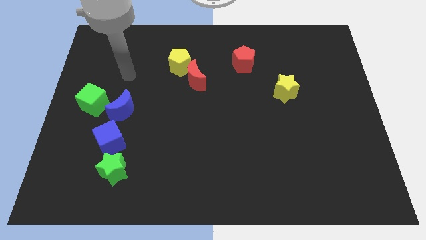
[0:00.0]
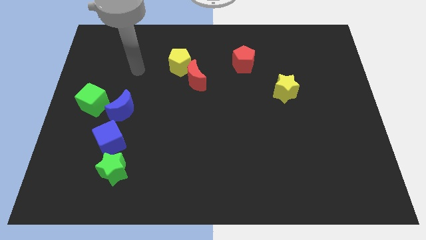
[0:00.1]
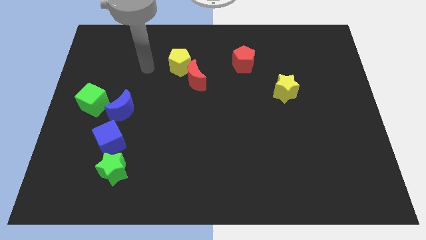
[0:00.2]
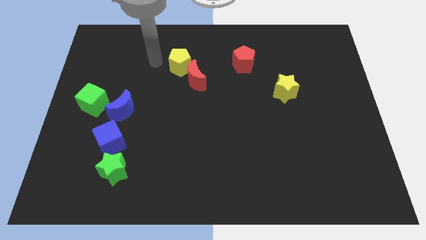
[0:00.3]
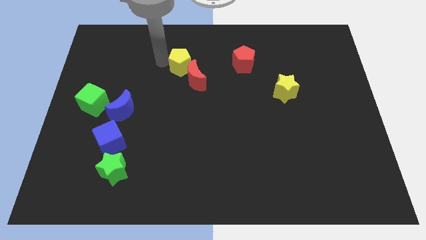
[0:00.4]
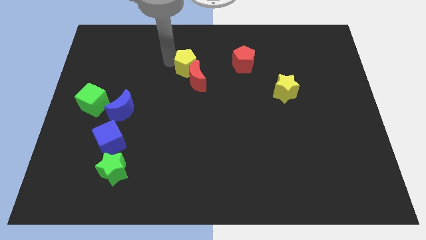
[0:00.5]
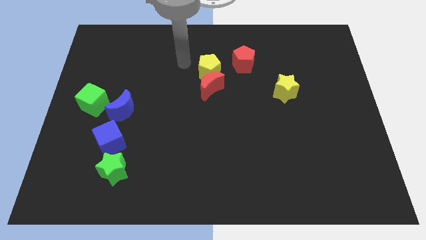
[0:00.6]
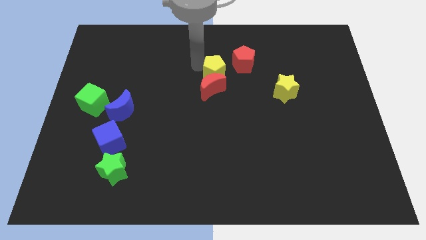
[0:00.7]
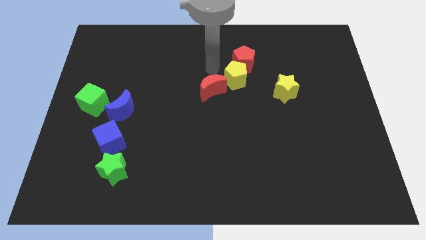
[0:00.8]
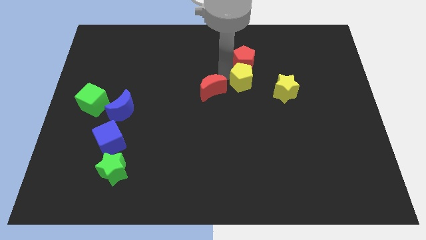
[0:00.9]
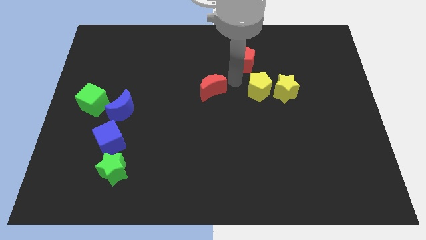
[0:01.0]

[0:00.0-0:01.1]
separate the red moon from the yellow pentagon

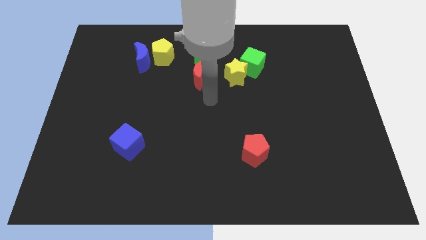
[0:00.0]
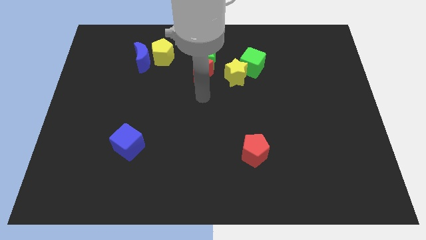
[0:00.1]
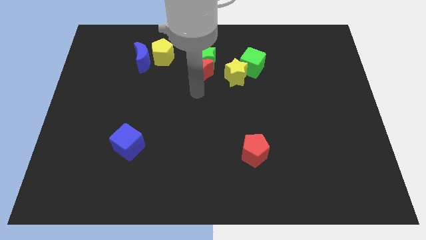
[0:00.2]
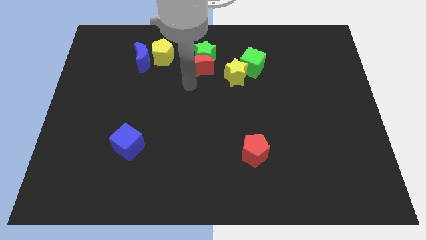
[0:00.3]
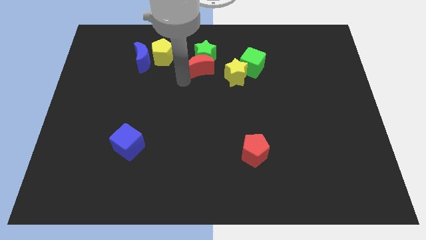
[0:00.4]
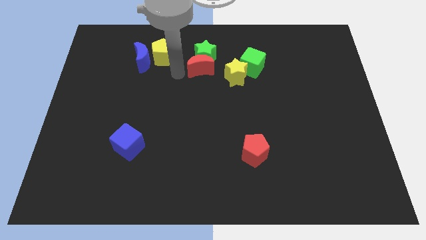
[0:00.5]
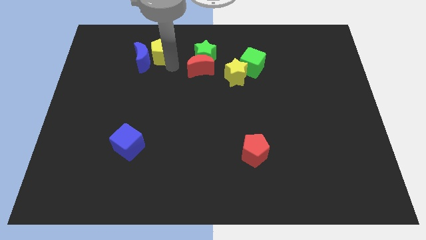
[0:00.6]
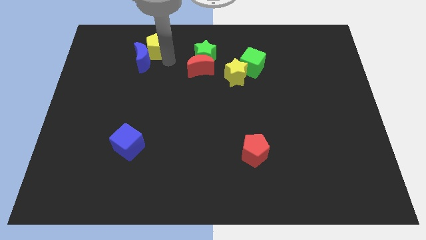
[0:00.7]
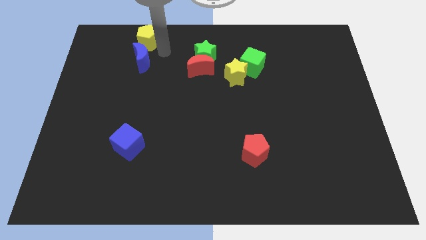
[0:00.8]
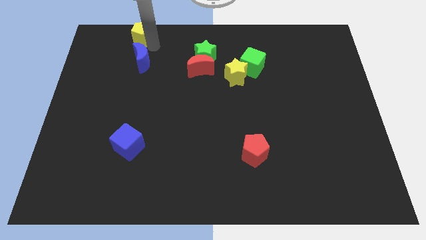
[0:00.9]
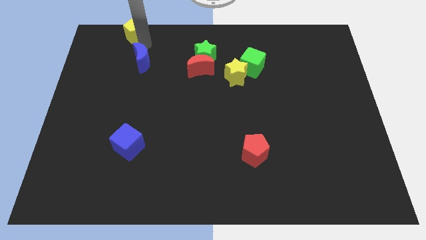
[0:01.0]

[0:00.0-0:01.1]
separate the blue moon from the yellow pentagon

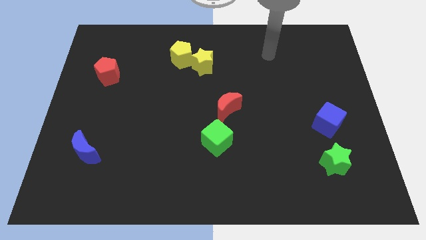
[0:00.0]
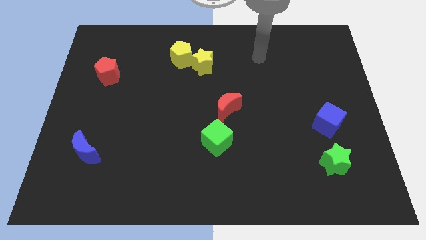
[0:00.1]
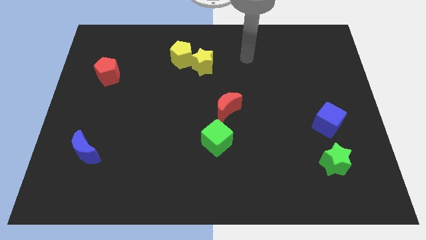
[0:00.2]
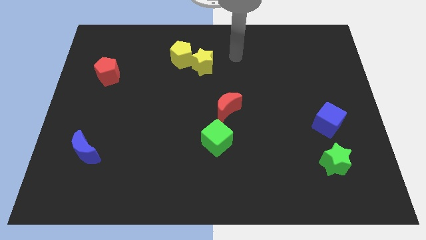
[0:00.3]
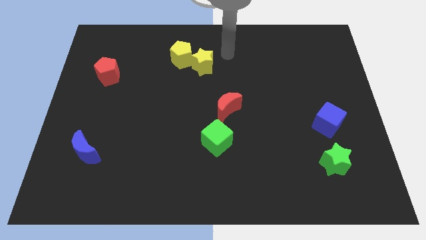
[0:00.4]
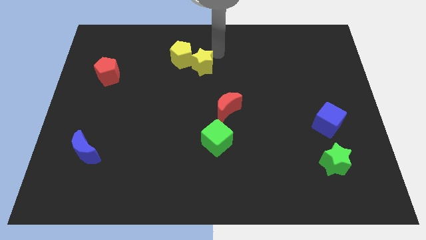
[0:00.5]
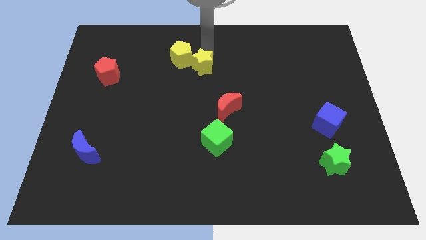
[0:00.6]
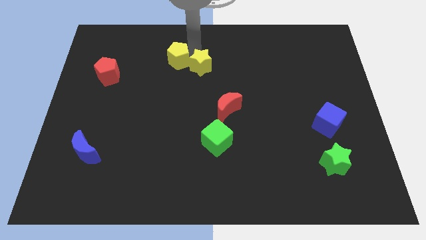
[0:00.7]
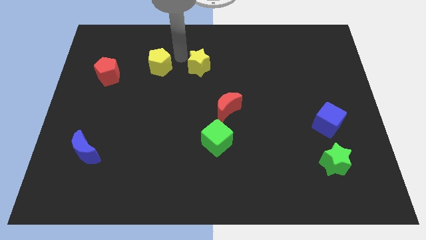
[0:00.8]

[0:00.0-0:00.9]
separate the yellow star from the yellow pentagon

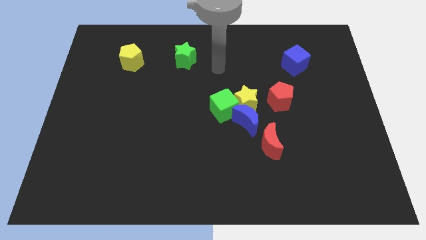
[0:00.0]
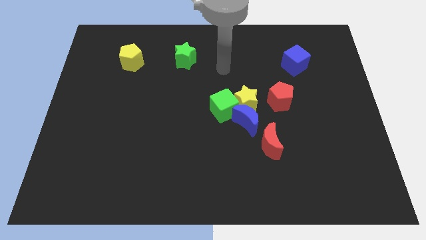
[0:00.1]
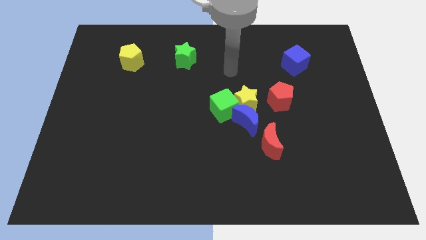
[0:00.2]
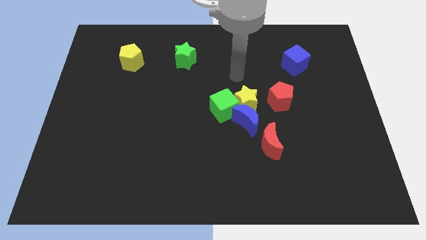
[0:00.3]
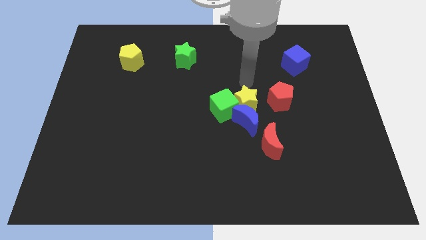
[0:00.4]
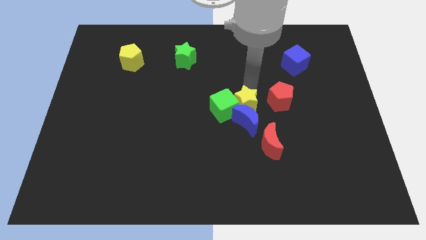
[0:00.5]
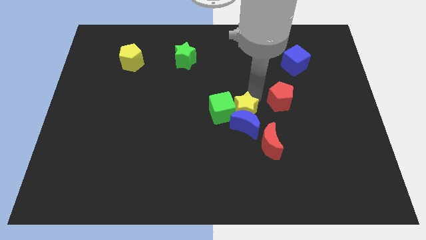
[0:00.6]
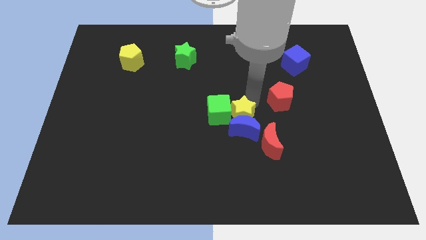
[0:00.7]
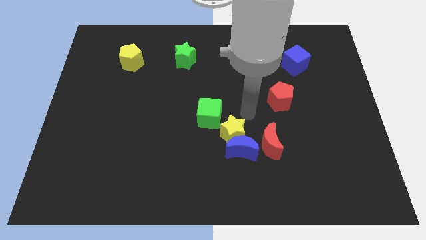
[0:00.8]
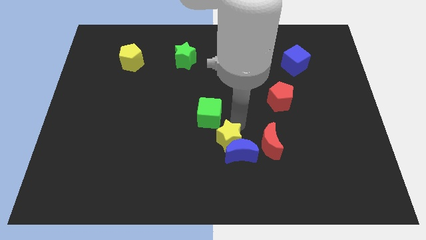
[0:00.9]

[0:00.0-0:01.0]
pull the green cube apart from the yellow star and blue moon

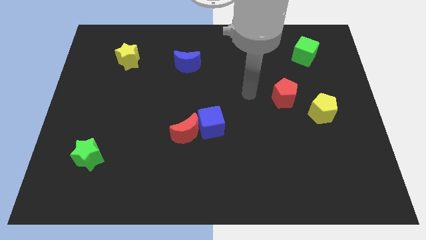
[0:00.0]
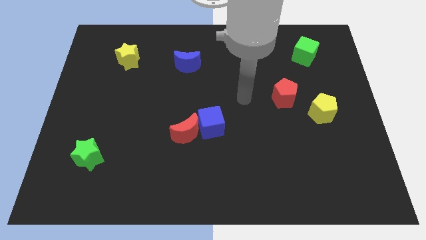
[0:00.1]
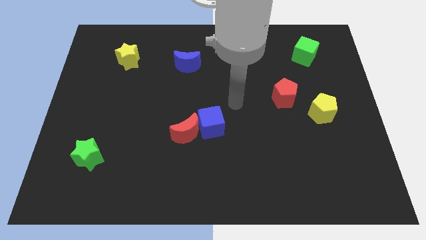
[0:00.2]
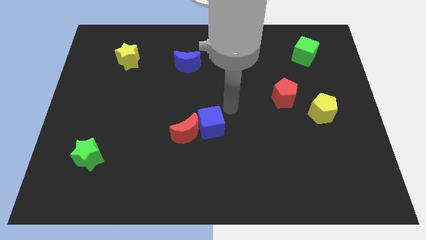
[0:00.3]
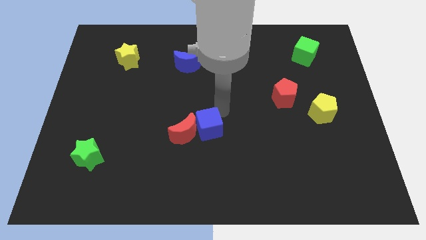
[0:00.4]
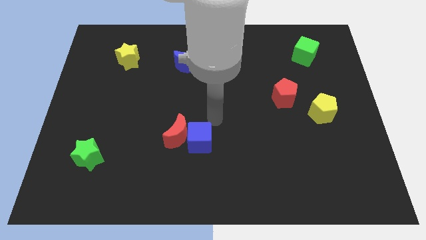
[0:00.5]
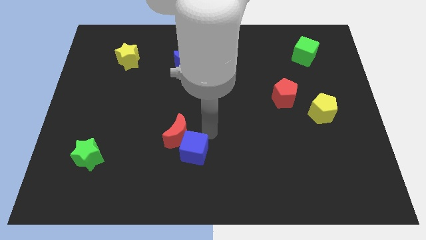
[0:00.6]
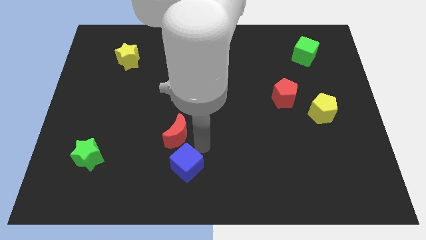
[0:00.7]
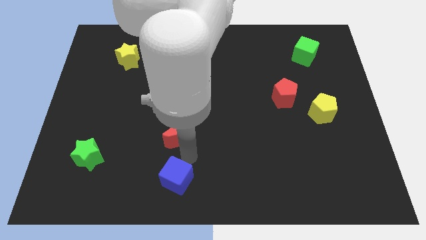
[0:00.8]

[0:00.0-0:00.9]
separate the red moon from the blue cube

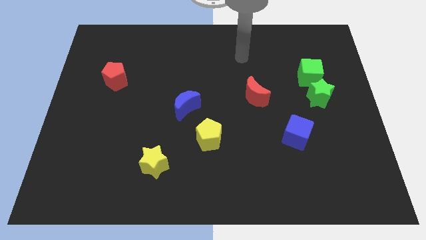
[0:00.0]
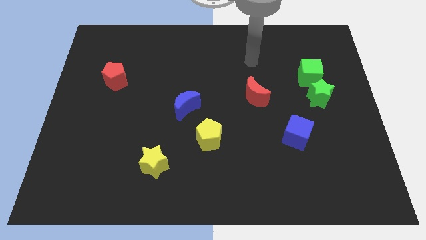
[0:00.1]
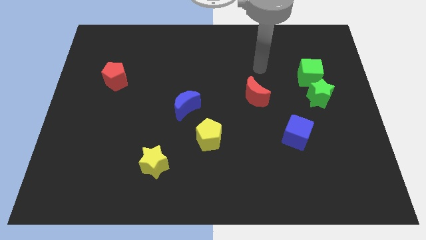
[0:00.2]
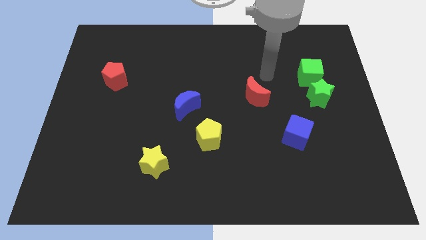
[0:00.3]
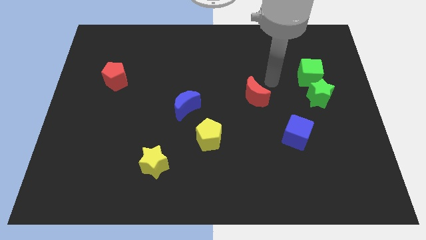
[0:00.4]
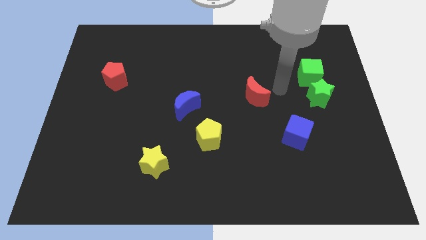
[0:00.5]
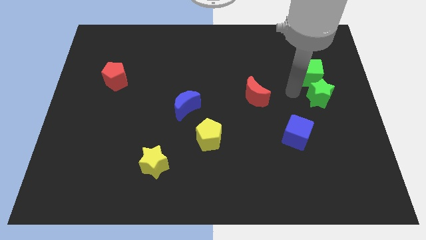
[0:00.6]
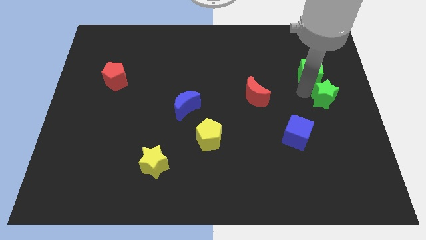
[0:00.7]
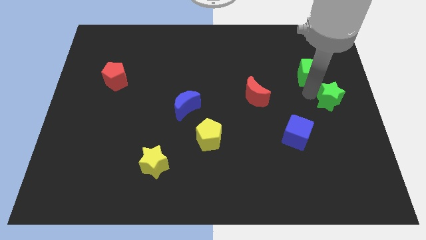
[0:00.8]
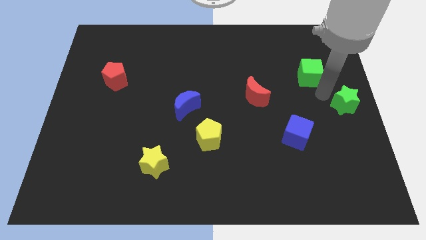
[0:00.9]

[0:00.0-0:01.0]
separate the green cube from the green star

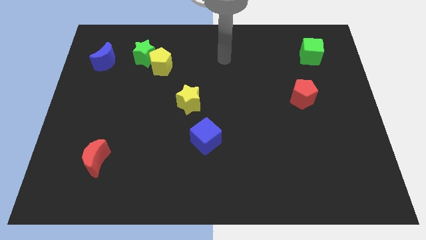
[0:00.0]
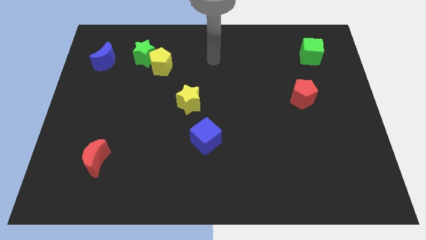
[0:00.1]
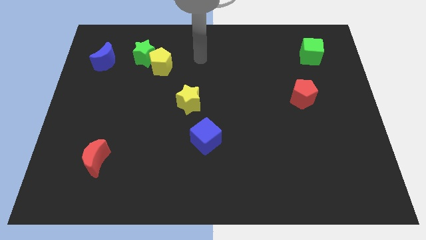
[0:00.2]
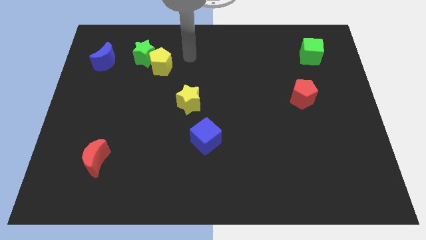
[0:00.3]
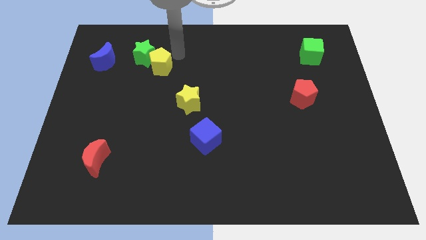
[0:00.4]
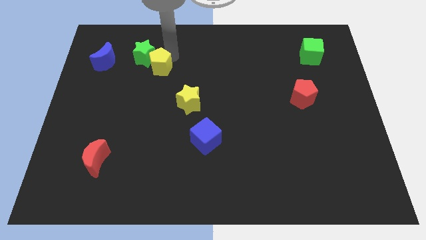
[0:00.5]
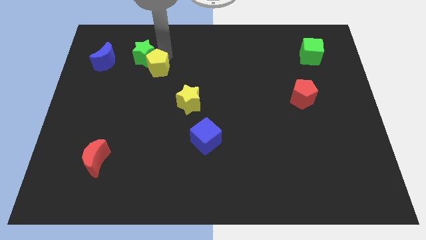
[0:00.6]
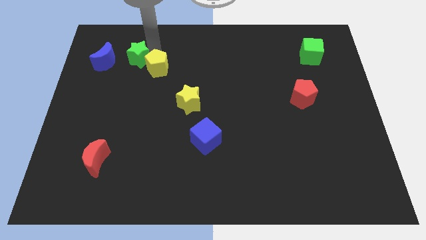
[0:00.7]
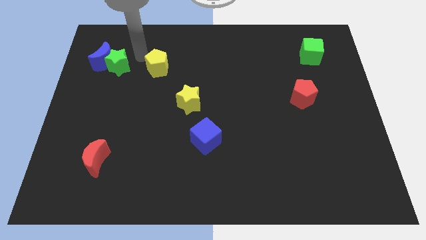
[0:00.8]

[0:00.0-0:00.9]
pull the yellow pentagon apart from the green star

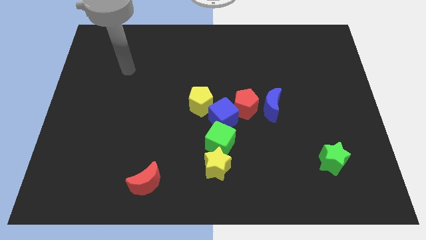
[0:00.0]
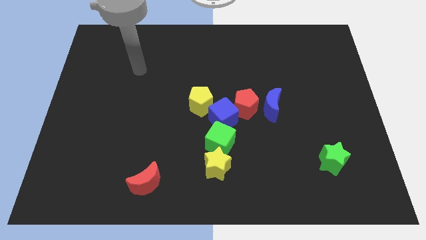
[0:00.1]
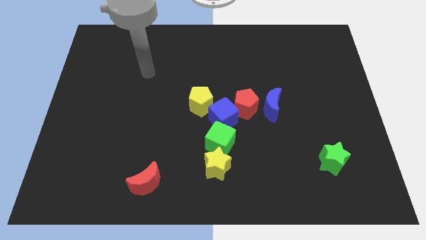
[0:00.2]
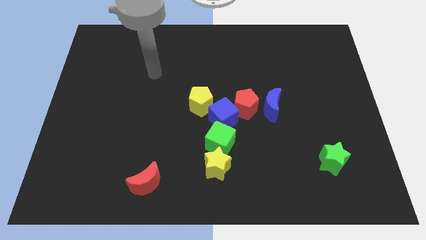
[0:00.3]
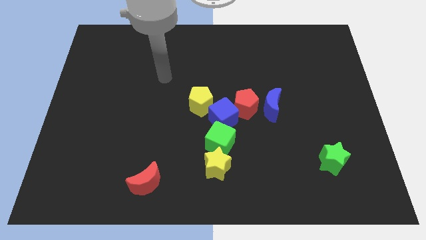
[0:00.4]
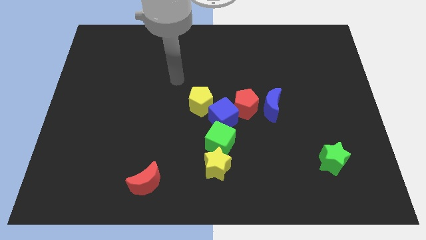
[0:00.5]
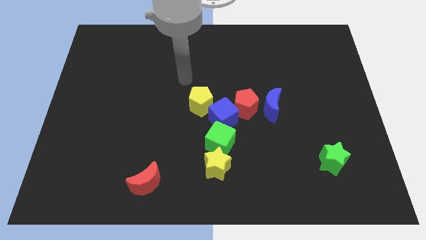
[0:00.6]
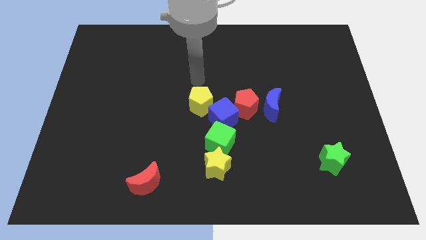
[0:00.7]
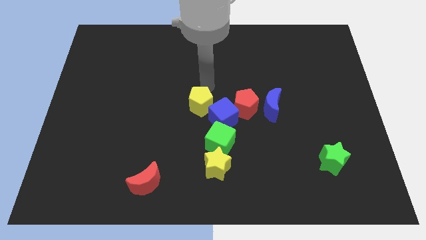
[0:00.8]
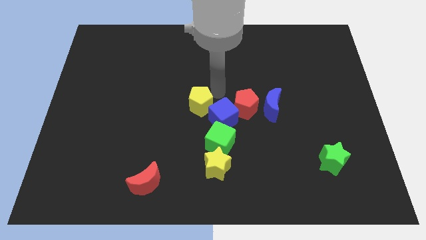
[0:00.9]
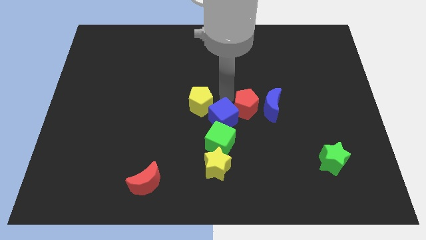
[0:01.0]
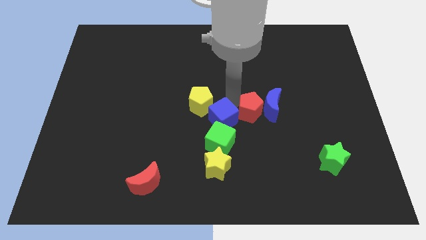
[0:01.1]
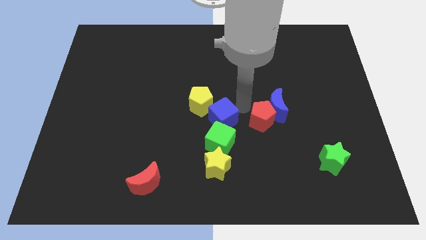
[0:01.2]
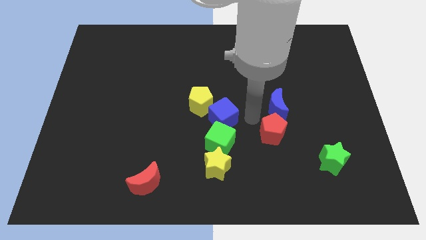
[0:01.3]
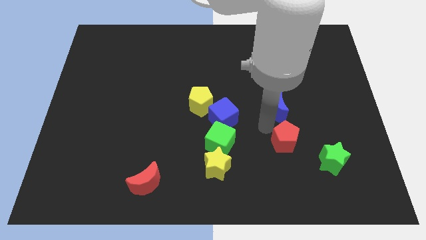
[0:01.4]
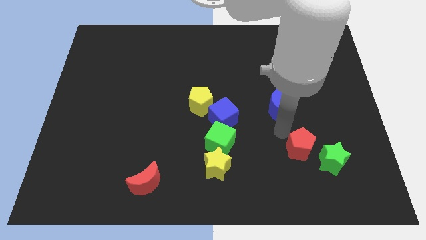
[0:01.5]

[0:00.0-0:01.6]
pull the blue moon apart from the red pentagon

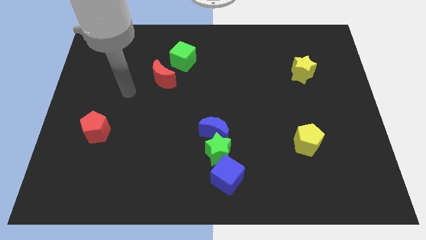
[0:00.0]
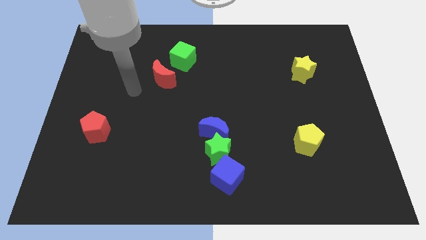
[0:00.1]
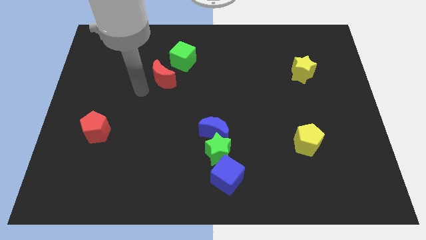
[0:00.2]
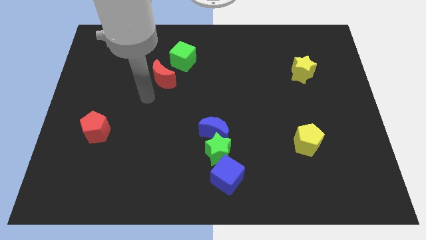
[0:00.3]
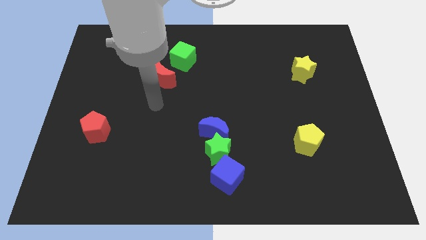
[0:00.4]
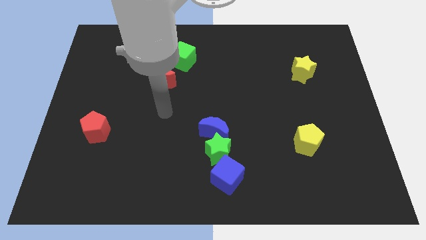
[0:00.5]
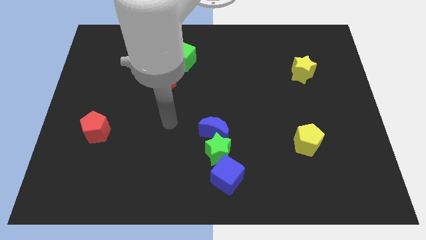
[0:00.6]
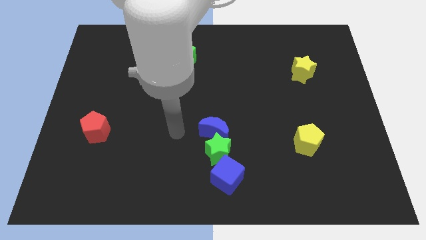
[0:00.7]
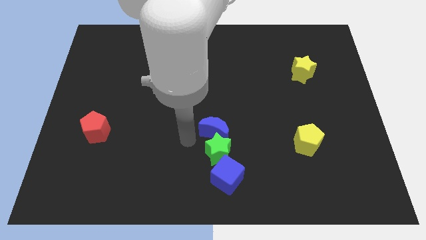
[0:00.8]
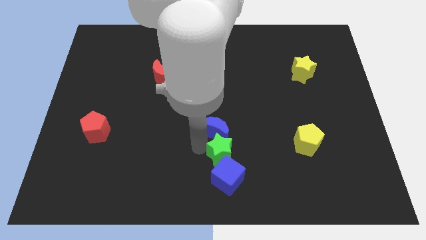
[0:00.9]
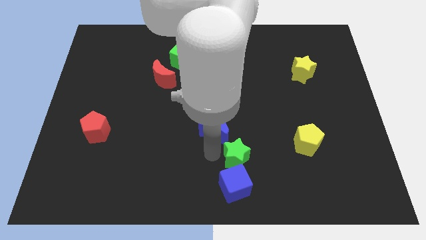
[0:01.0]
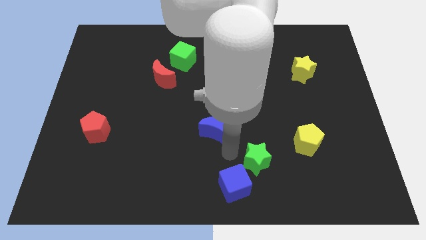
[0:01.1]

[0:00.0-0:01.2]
move the blue moon away from the green star
